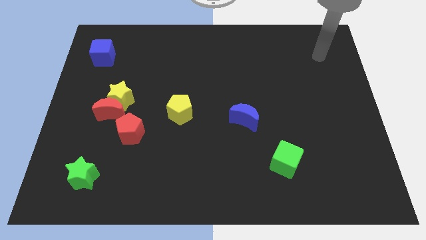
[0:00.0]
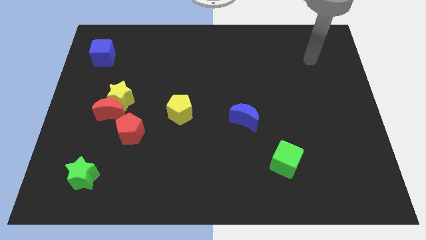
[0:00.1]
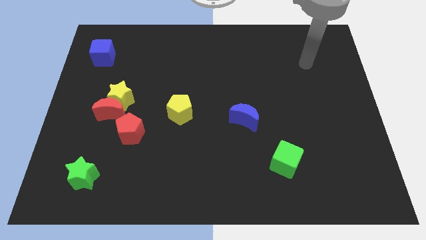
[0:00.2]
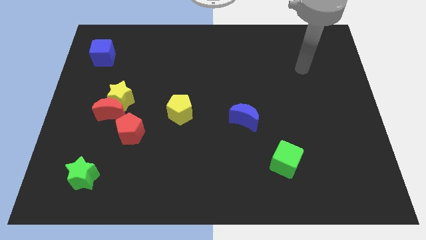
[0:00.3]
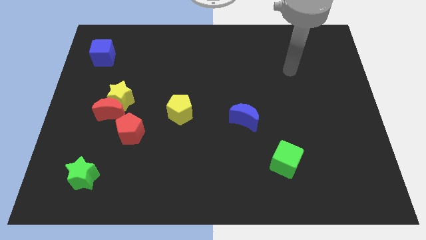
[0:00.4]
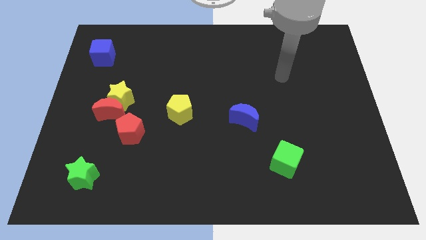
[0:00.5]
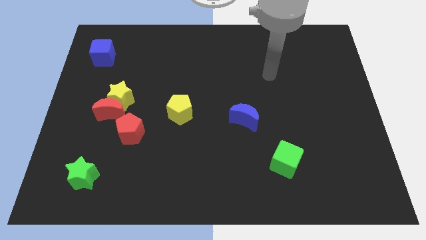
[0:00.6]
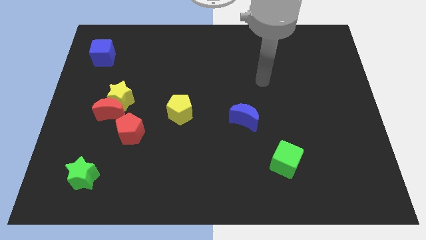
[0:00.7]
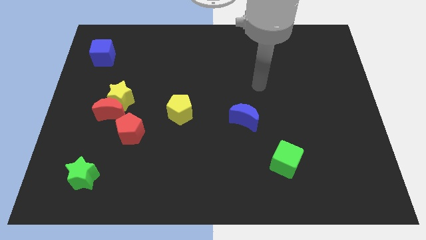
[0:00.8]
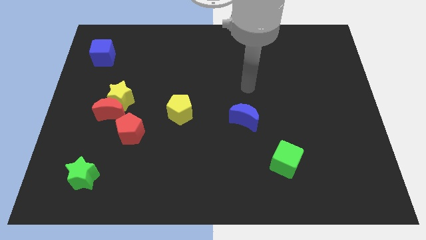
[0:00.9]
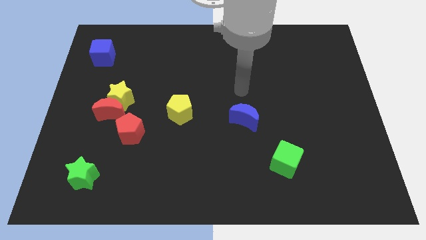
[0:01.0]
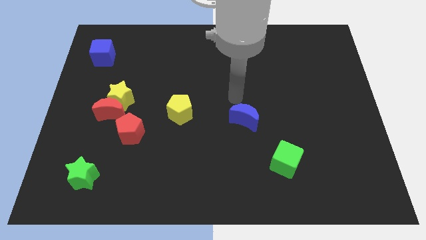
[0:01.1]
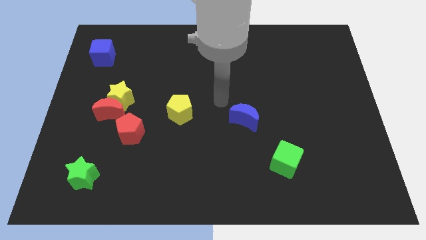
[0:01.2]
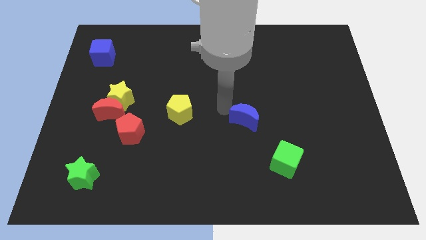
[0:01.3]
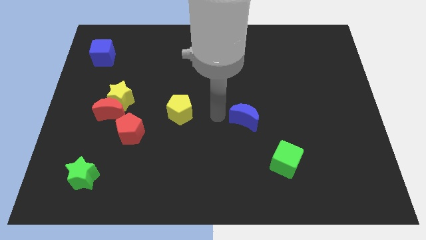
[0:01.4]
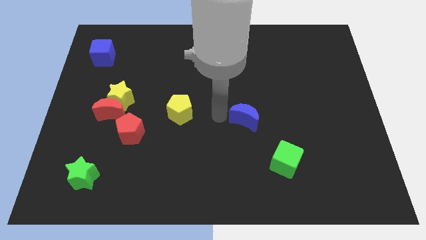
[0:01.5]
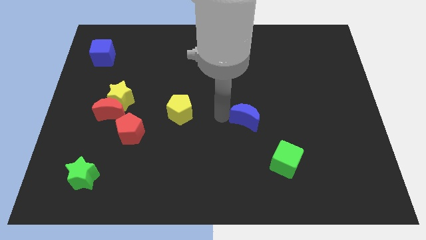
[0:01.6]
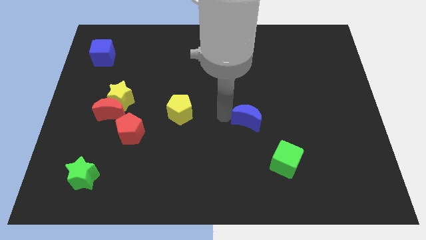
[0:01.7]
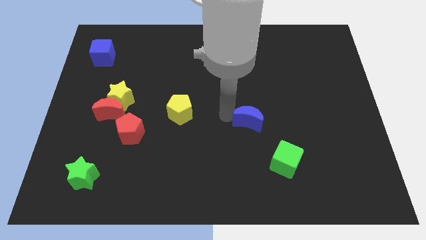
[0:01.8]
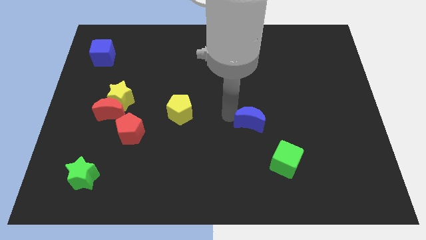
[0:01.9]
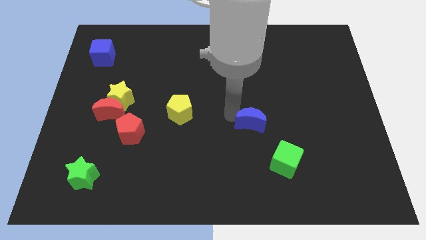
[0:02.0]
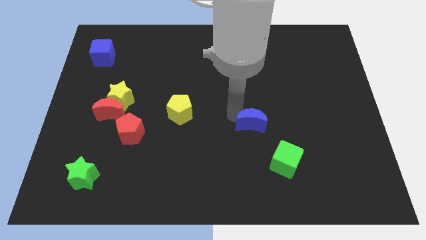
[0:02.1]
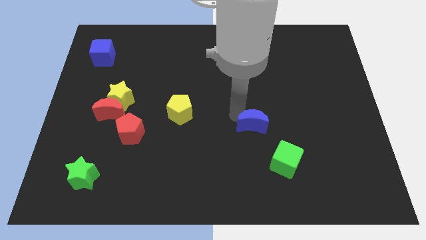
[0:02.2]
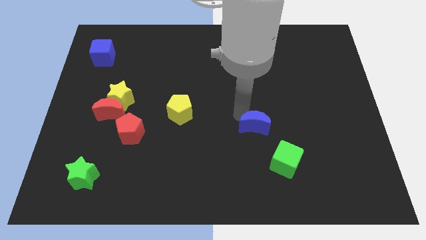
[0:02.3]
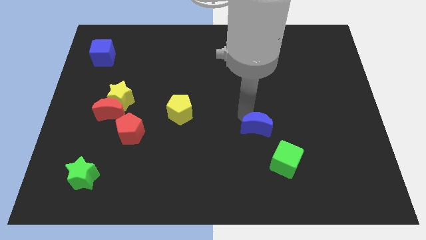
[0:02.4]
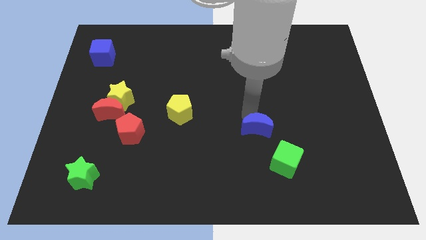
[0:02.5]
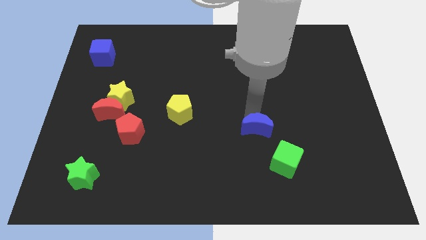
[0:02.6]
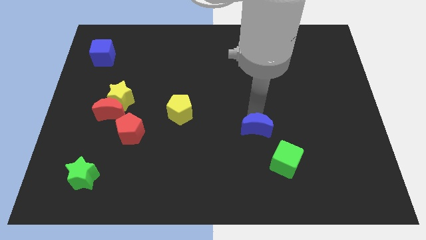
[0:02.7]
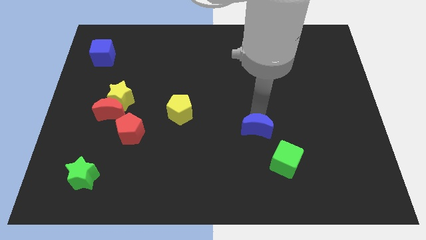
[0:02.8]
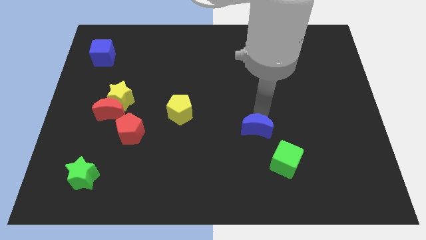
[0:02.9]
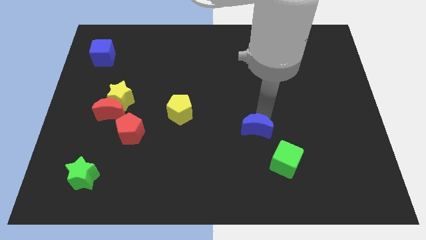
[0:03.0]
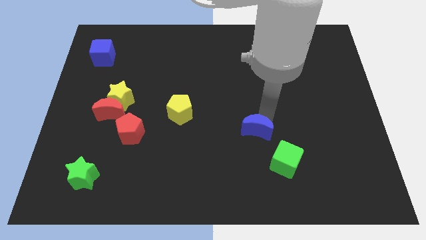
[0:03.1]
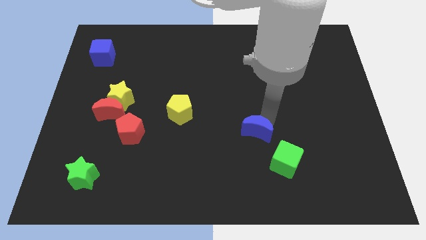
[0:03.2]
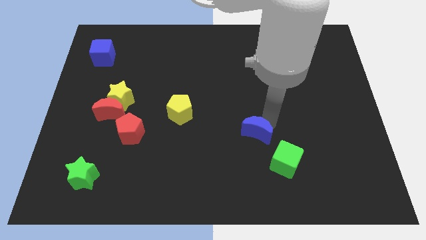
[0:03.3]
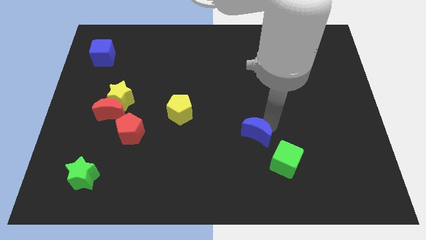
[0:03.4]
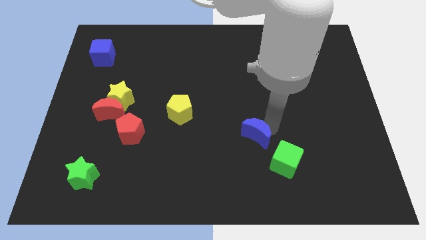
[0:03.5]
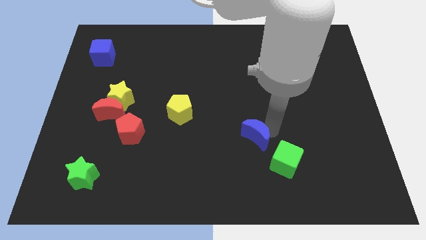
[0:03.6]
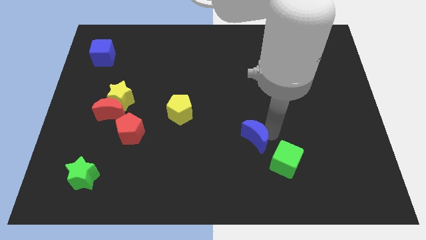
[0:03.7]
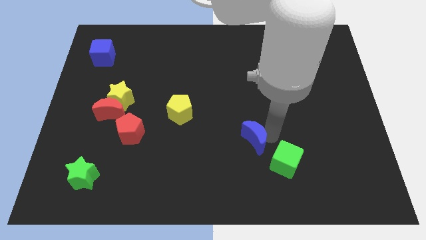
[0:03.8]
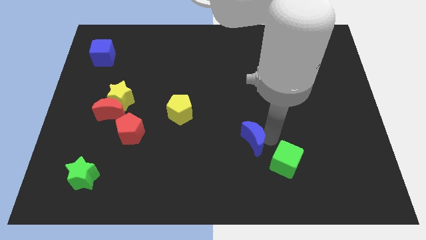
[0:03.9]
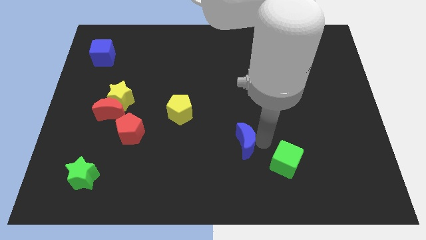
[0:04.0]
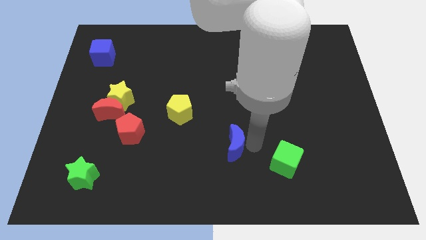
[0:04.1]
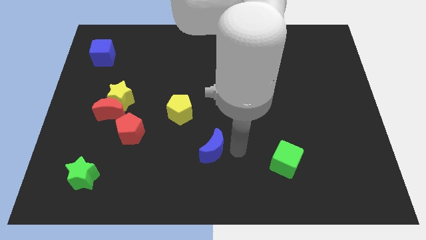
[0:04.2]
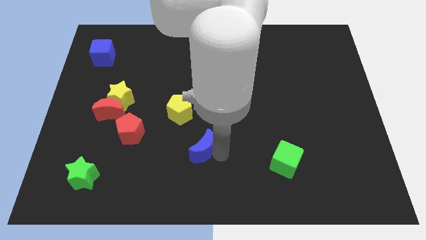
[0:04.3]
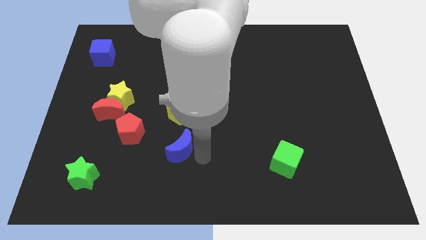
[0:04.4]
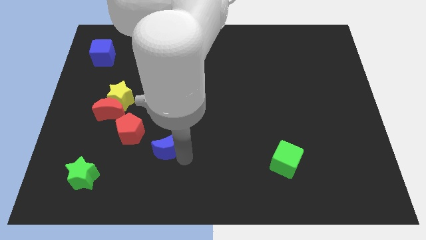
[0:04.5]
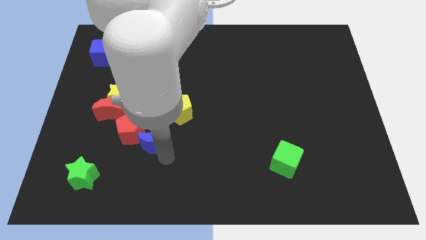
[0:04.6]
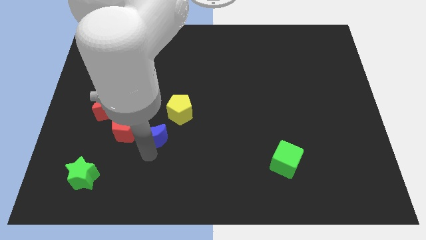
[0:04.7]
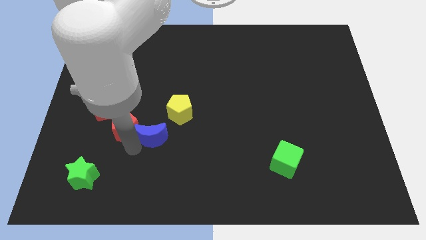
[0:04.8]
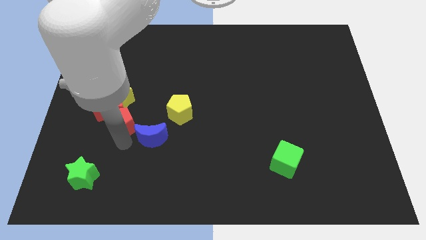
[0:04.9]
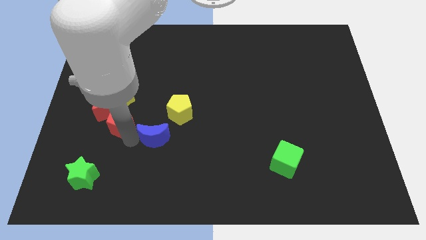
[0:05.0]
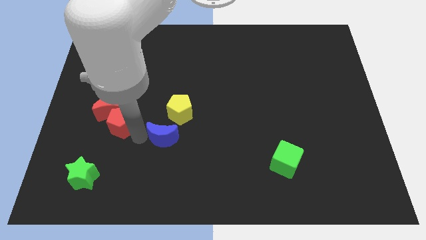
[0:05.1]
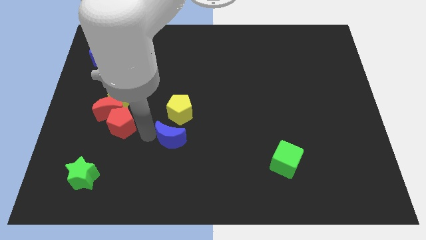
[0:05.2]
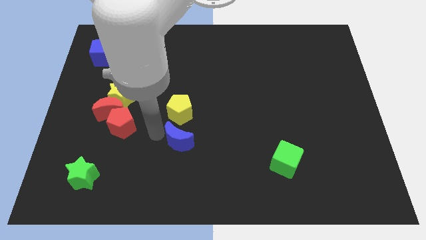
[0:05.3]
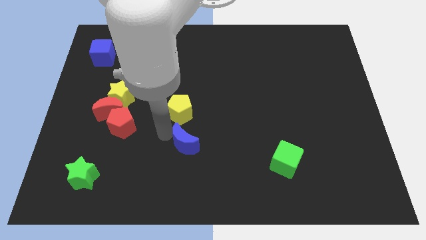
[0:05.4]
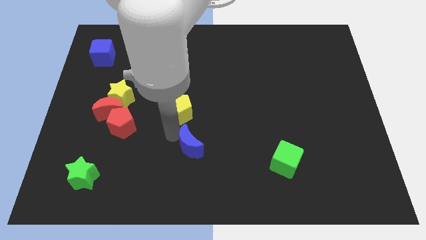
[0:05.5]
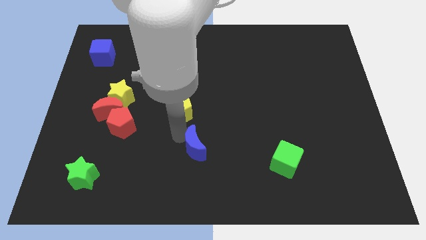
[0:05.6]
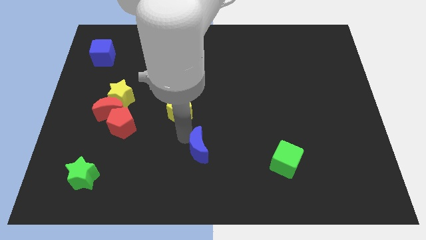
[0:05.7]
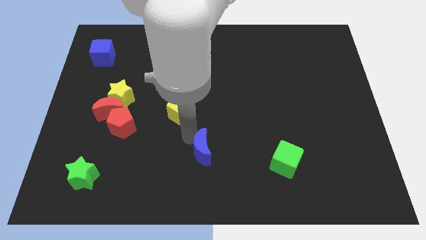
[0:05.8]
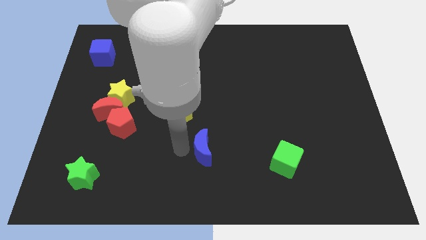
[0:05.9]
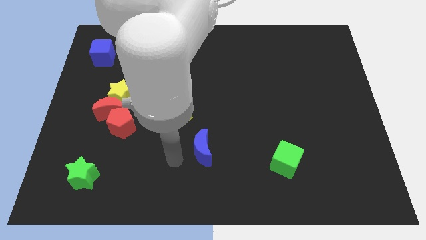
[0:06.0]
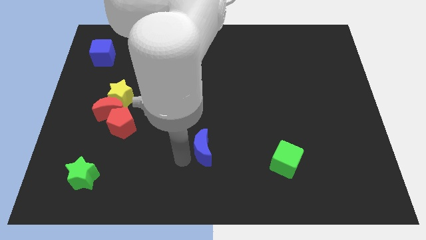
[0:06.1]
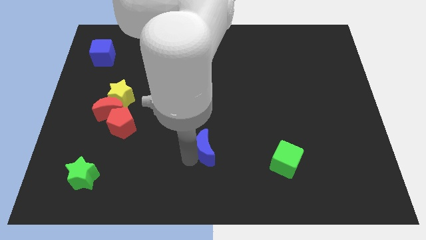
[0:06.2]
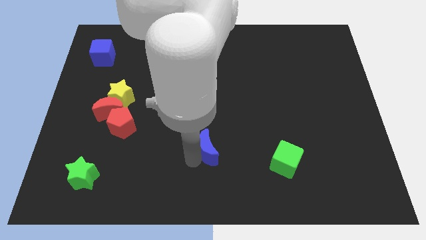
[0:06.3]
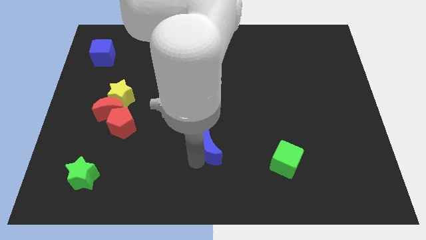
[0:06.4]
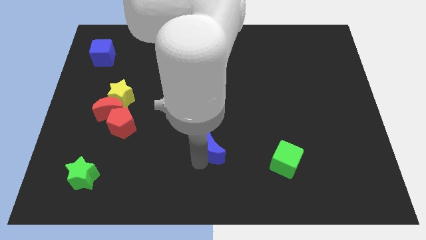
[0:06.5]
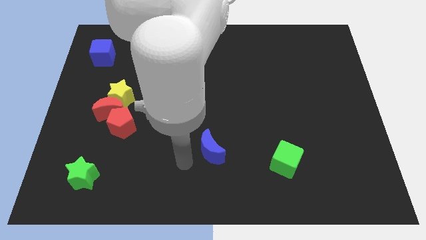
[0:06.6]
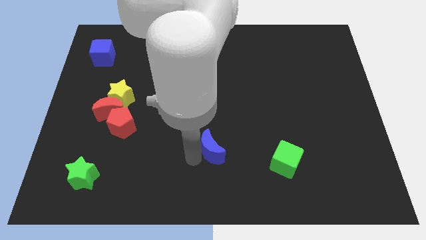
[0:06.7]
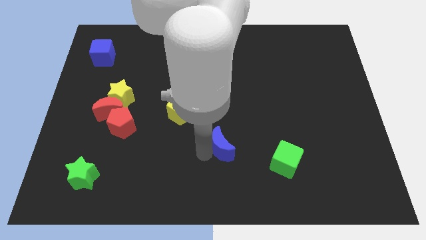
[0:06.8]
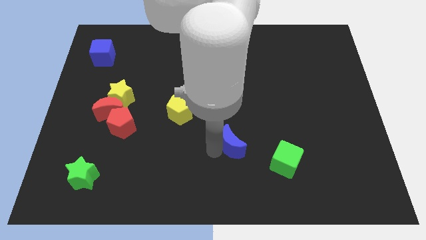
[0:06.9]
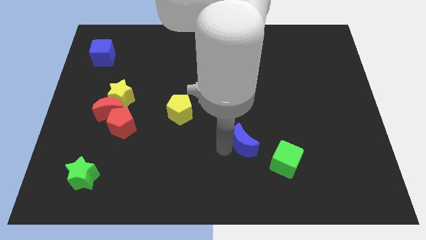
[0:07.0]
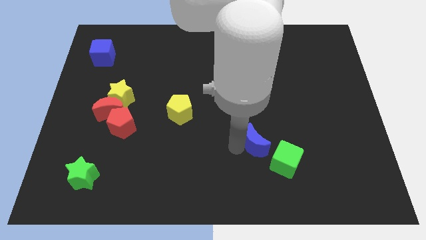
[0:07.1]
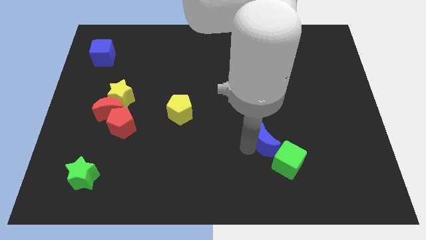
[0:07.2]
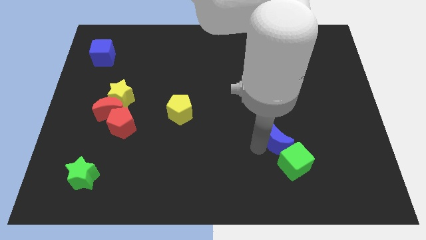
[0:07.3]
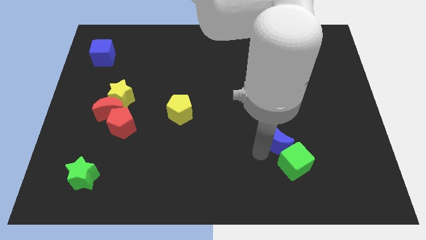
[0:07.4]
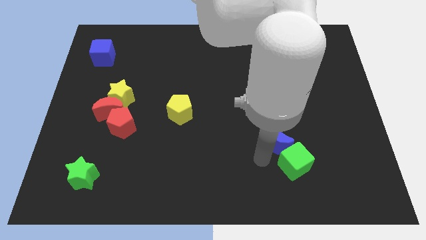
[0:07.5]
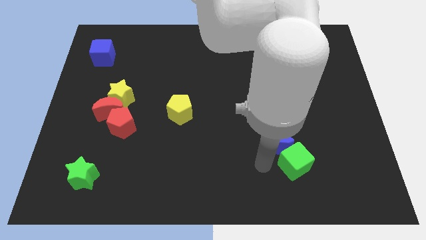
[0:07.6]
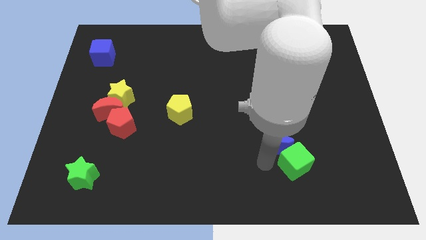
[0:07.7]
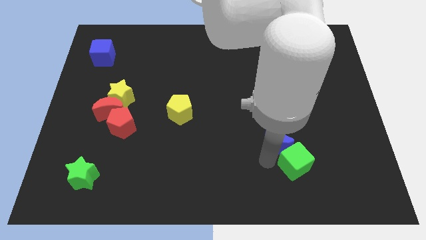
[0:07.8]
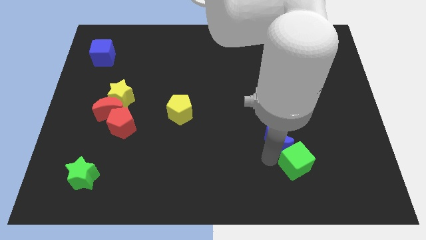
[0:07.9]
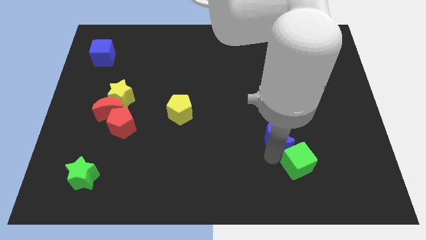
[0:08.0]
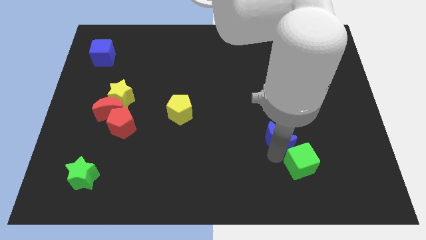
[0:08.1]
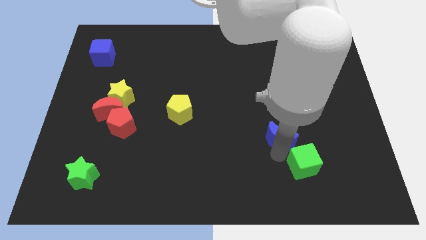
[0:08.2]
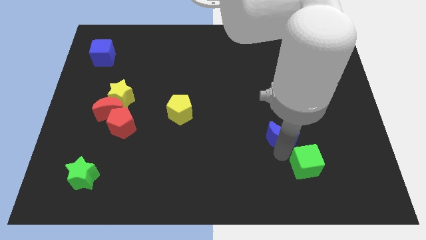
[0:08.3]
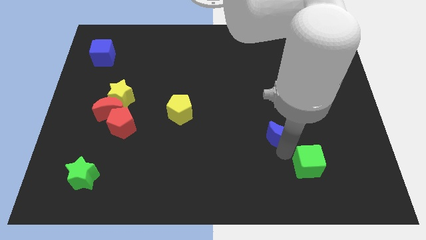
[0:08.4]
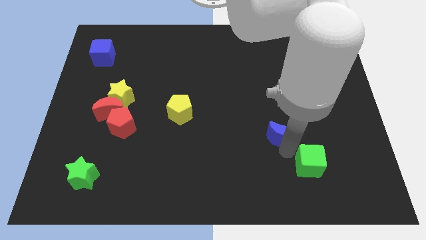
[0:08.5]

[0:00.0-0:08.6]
slightly move the blue moon to the right
